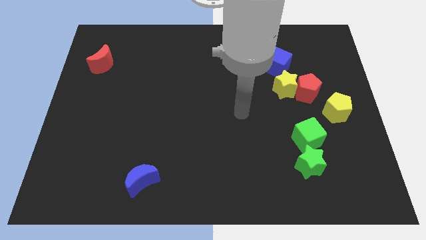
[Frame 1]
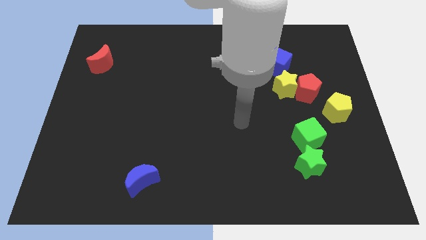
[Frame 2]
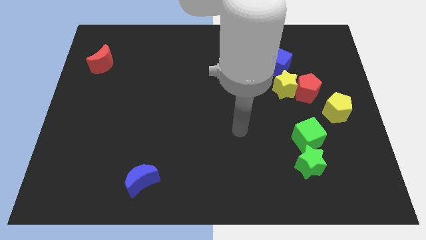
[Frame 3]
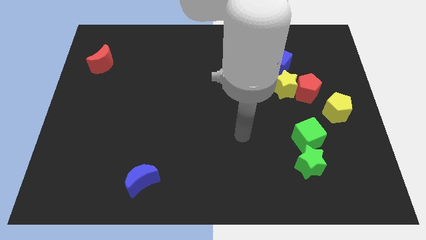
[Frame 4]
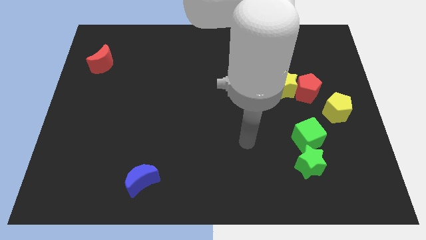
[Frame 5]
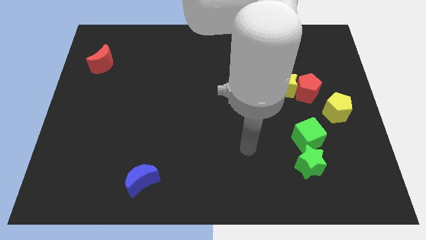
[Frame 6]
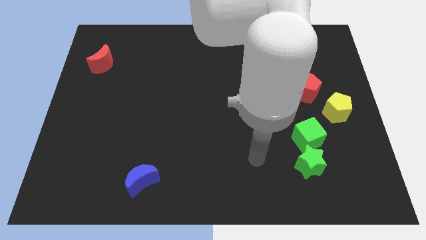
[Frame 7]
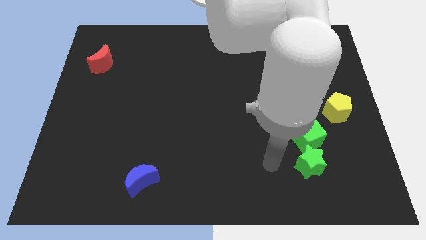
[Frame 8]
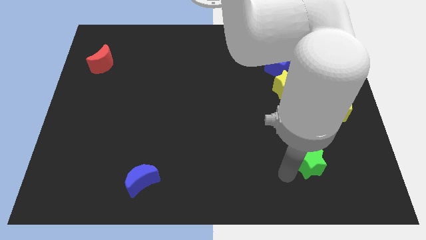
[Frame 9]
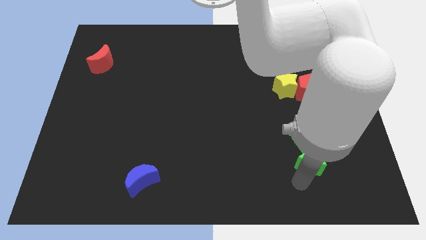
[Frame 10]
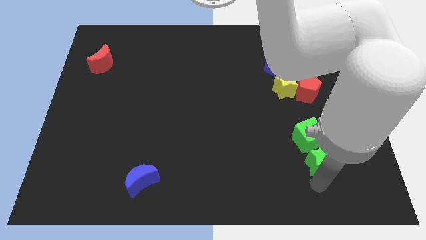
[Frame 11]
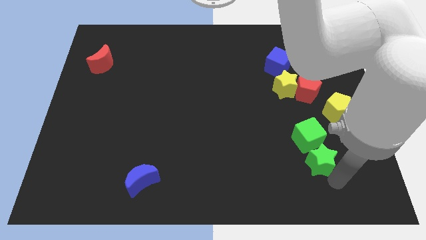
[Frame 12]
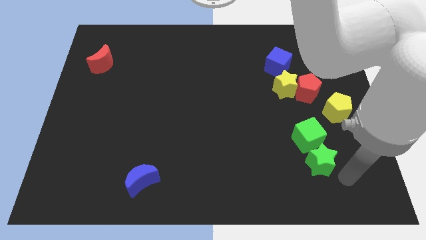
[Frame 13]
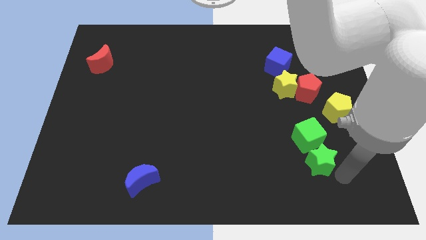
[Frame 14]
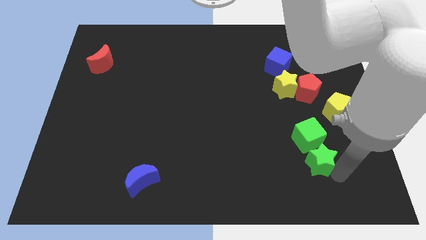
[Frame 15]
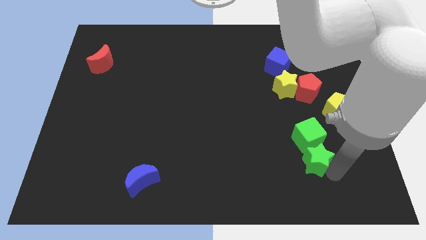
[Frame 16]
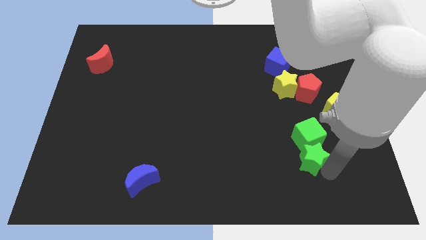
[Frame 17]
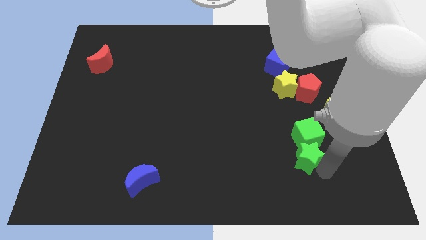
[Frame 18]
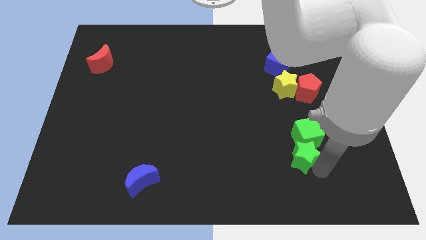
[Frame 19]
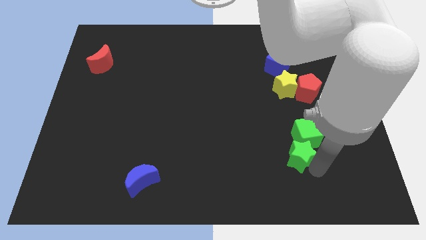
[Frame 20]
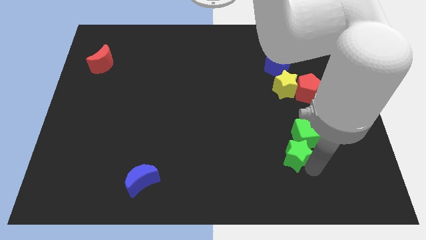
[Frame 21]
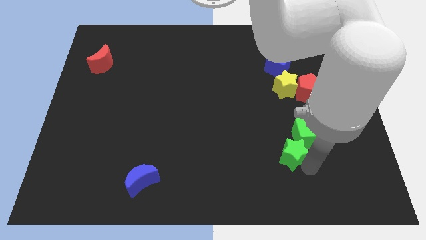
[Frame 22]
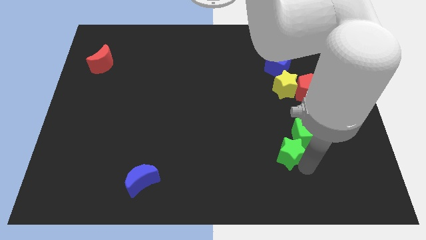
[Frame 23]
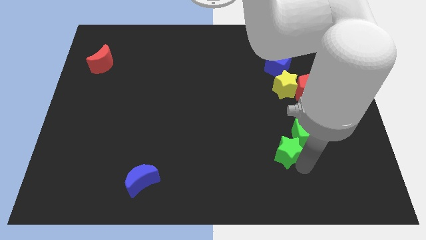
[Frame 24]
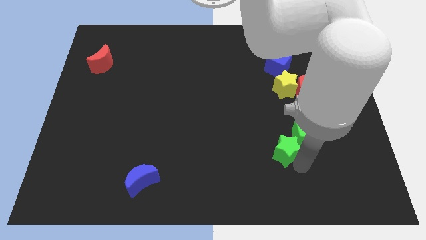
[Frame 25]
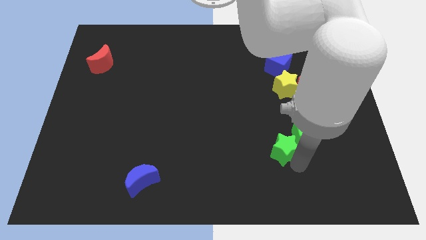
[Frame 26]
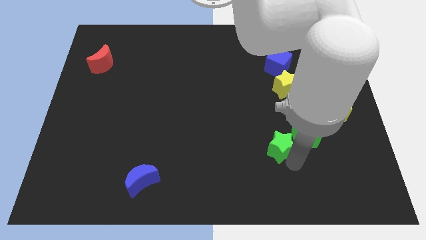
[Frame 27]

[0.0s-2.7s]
slide the green star a little bit diagonally up and left

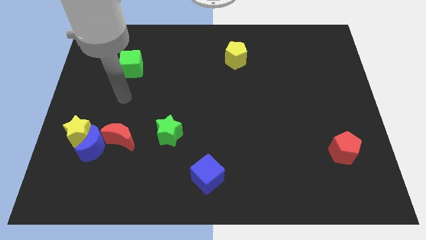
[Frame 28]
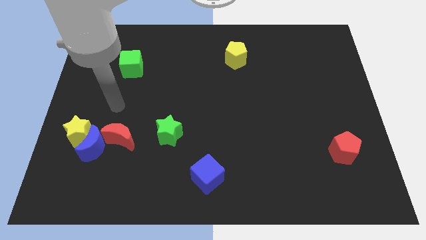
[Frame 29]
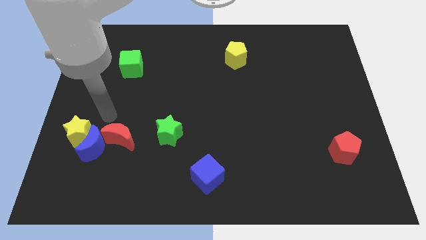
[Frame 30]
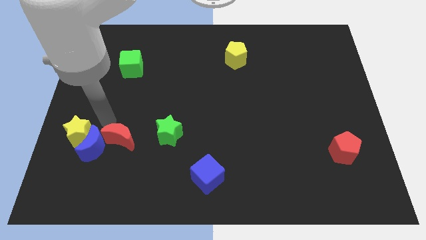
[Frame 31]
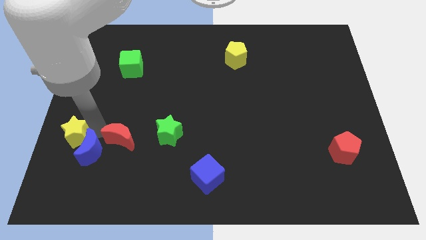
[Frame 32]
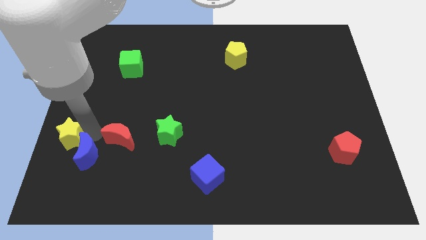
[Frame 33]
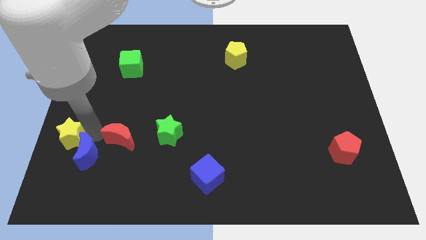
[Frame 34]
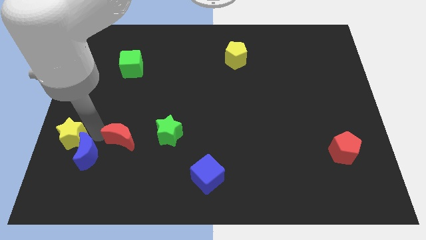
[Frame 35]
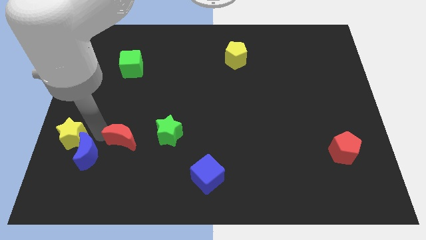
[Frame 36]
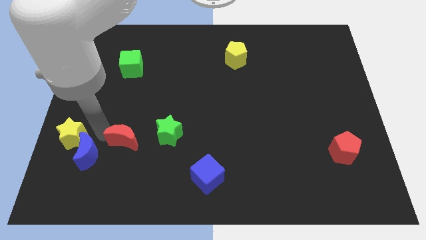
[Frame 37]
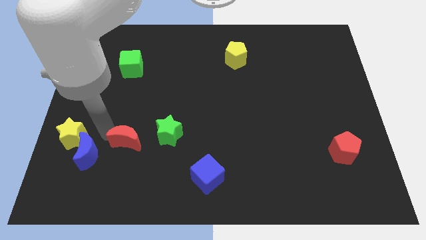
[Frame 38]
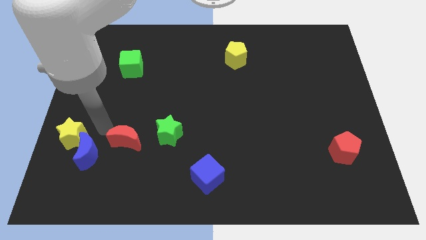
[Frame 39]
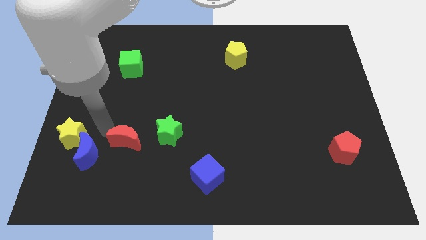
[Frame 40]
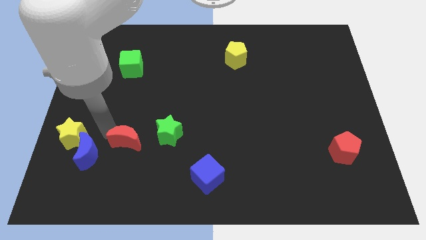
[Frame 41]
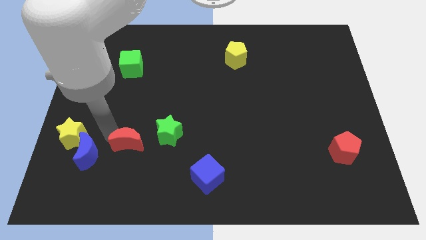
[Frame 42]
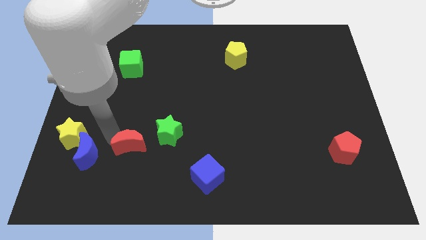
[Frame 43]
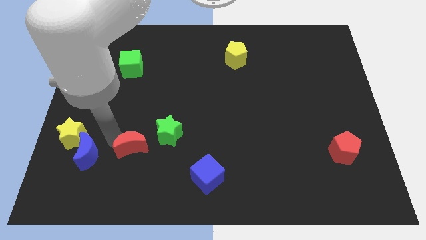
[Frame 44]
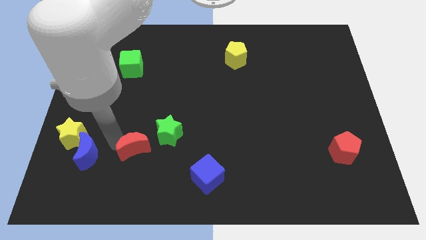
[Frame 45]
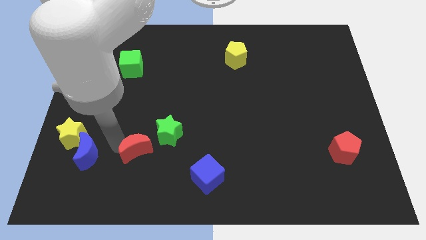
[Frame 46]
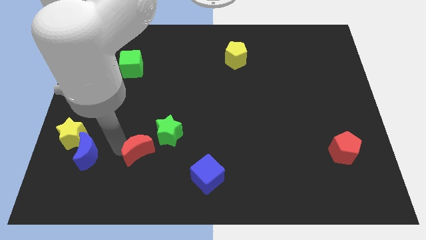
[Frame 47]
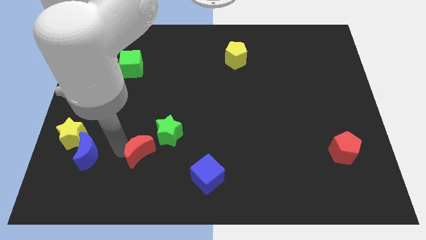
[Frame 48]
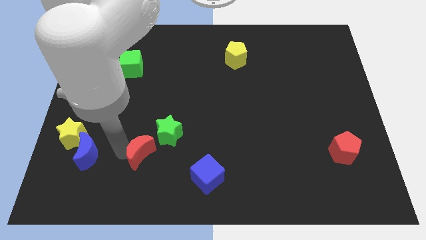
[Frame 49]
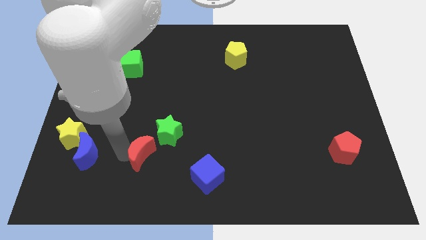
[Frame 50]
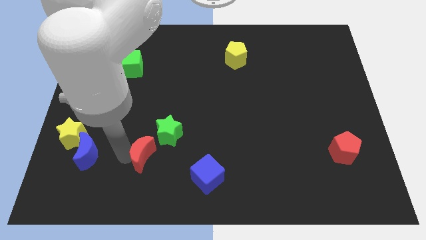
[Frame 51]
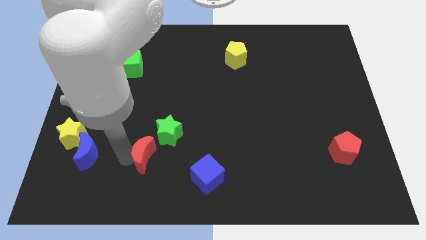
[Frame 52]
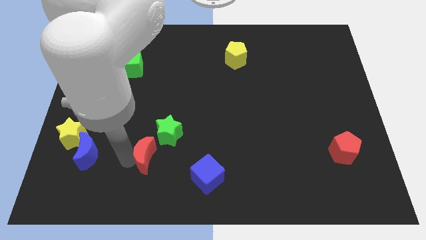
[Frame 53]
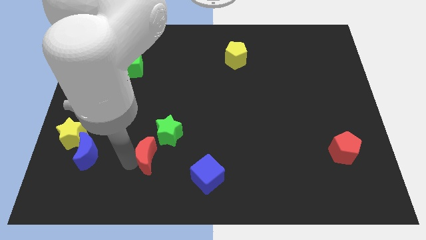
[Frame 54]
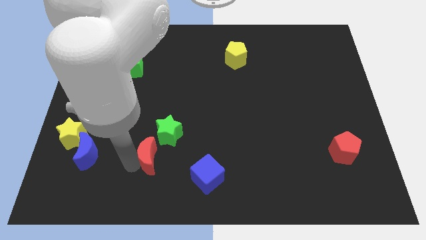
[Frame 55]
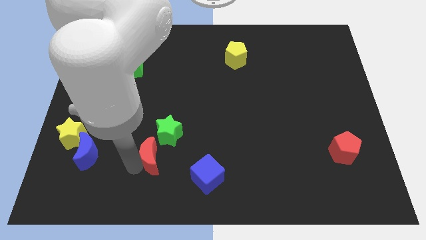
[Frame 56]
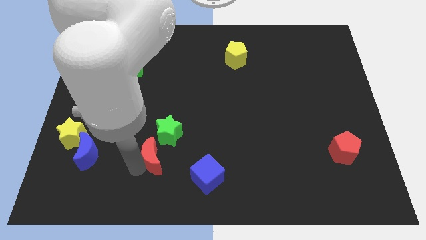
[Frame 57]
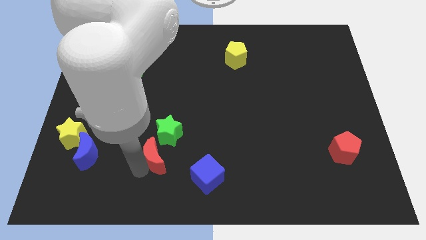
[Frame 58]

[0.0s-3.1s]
slightly move the red moon to the right

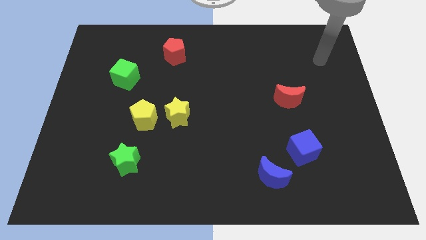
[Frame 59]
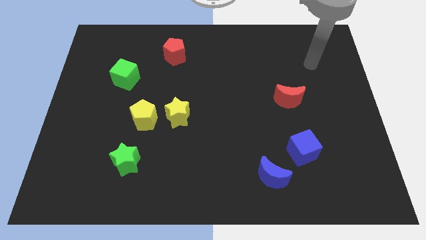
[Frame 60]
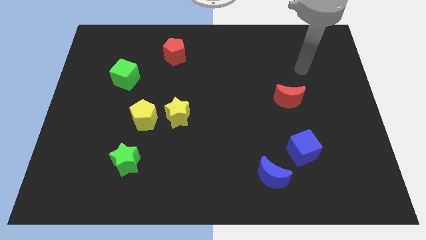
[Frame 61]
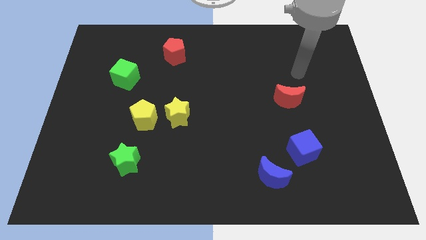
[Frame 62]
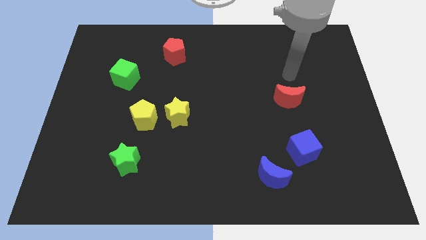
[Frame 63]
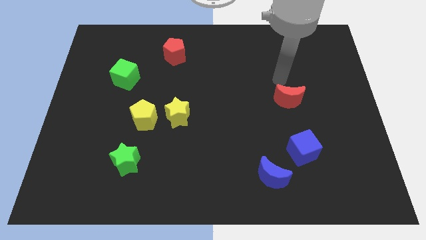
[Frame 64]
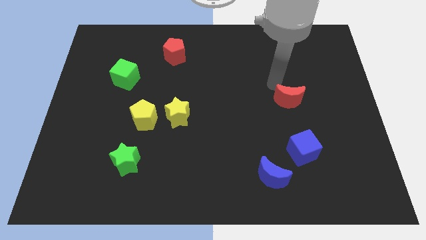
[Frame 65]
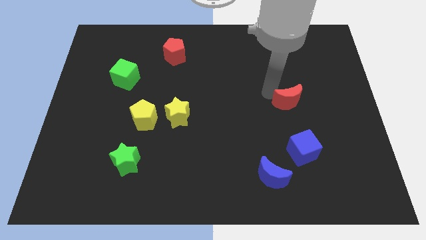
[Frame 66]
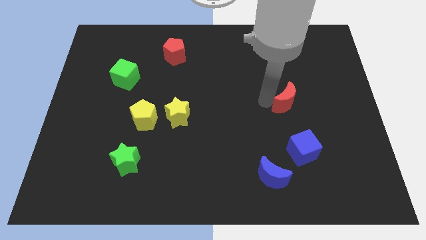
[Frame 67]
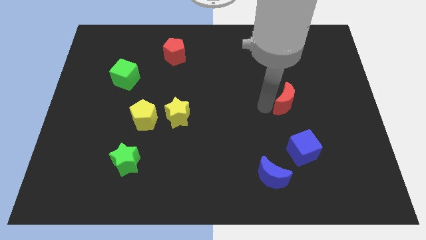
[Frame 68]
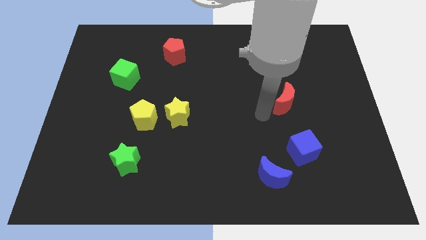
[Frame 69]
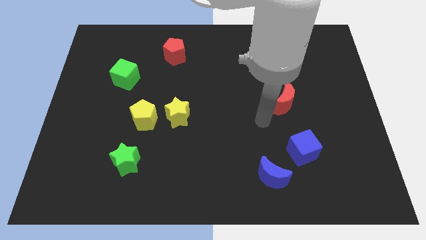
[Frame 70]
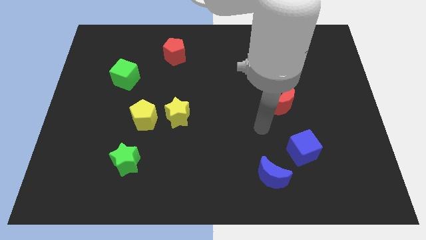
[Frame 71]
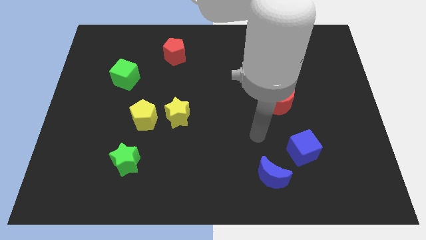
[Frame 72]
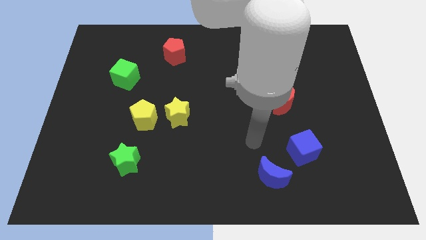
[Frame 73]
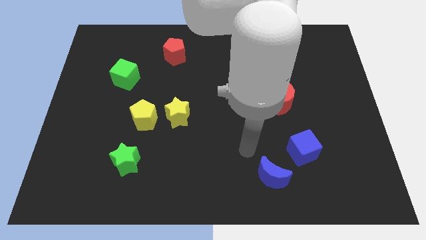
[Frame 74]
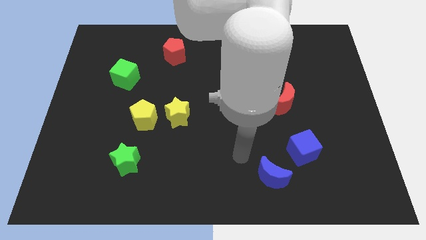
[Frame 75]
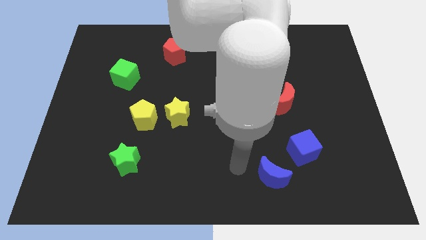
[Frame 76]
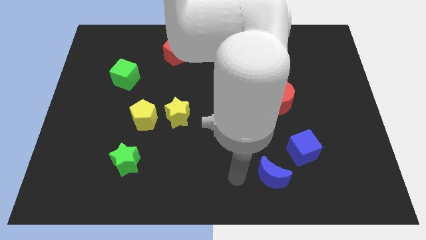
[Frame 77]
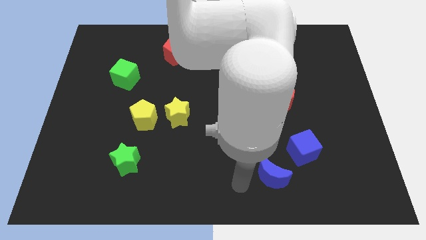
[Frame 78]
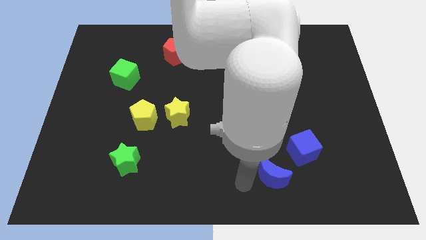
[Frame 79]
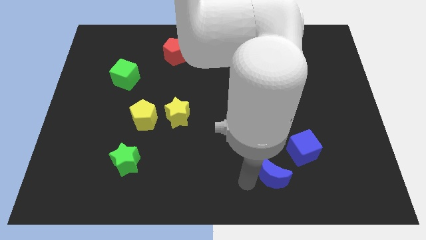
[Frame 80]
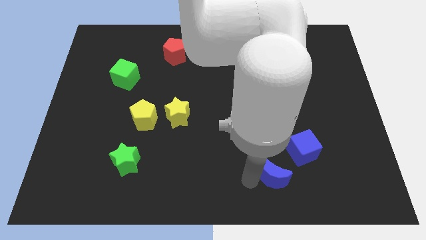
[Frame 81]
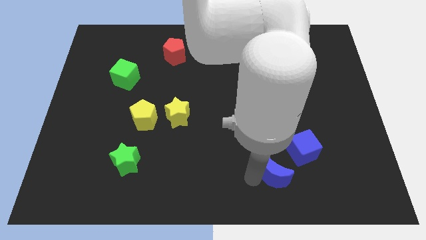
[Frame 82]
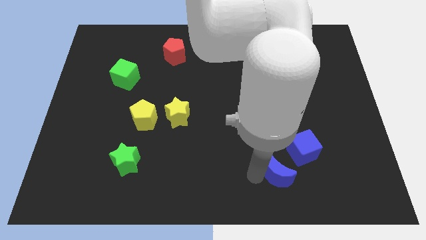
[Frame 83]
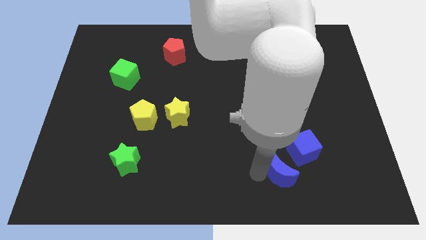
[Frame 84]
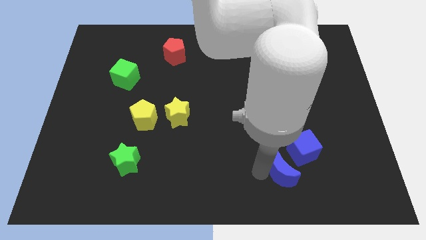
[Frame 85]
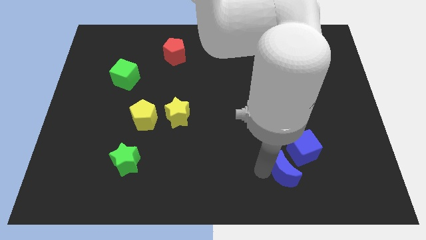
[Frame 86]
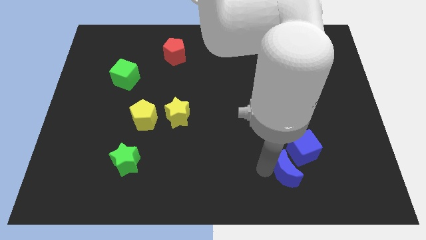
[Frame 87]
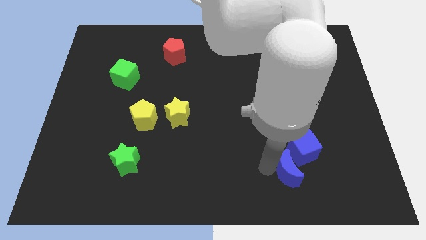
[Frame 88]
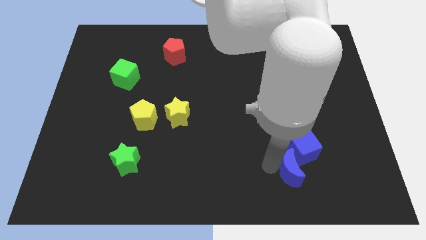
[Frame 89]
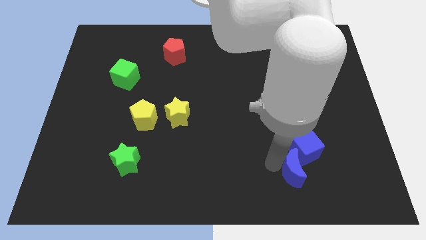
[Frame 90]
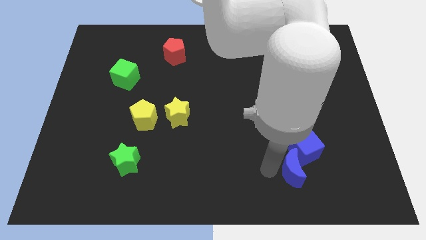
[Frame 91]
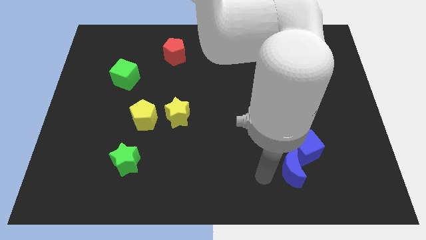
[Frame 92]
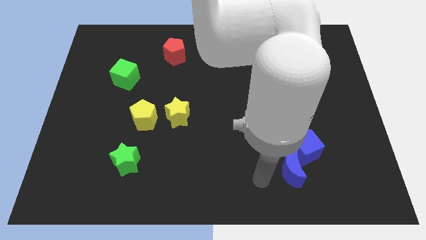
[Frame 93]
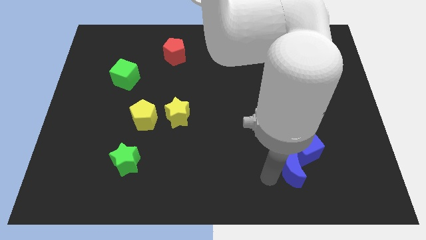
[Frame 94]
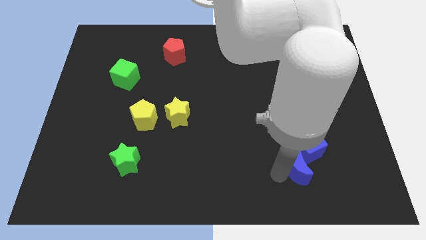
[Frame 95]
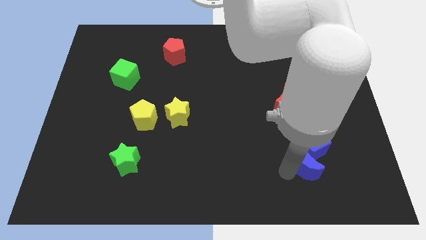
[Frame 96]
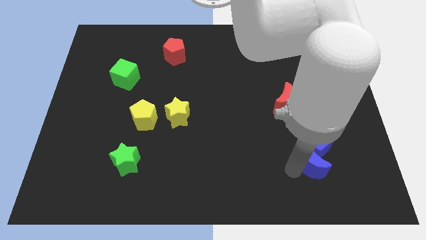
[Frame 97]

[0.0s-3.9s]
push the blue moon upwards and to the right slightly
